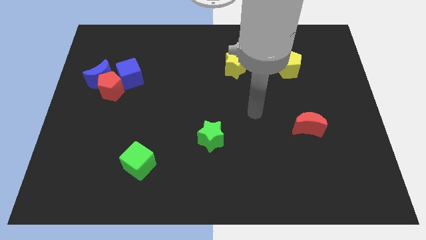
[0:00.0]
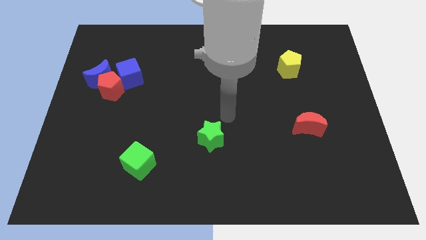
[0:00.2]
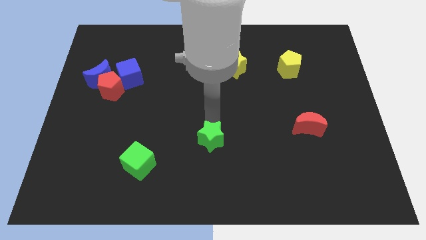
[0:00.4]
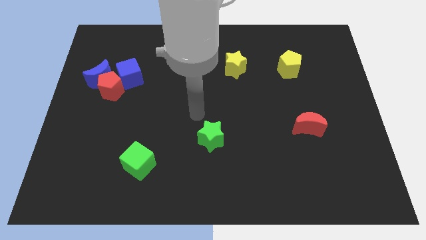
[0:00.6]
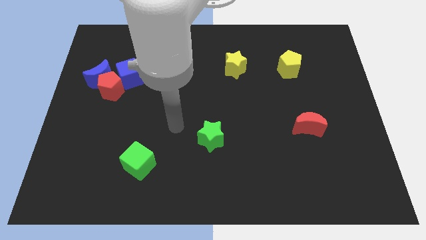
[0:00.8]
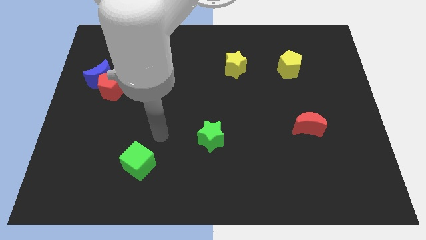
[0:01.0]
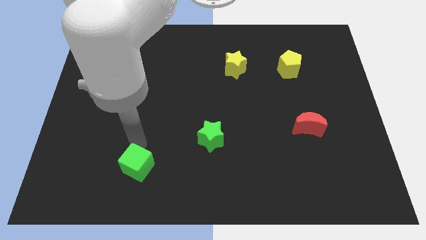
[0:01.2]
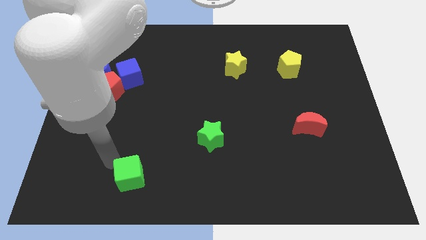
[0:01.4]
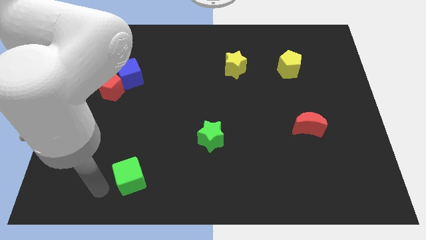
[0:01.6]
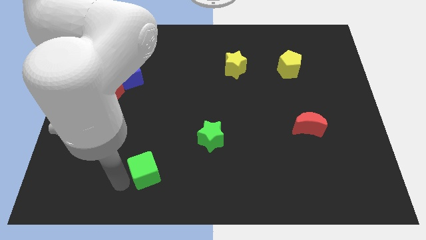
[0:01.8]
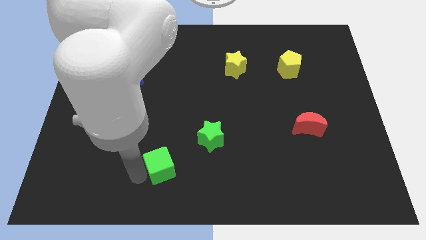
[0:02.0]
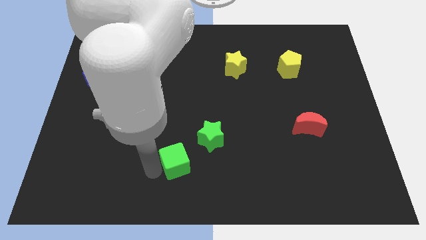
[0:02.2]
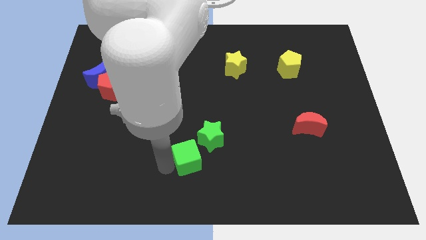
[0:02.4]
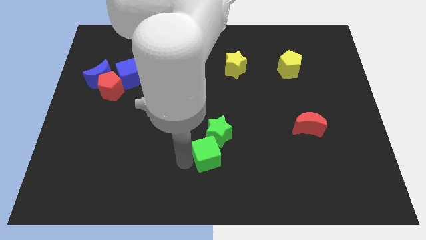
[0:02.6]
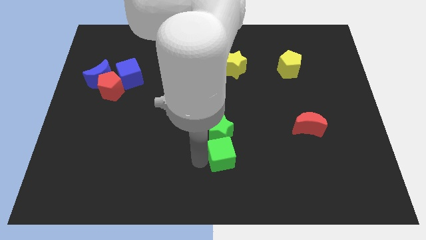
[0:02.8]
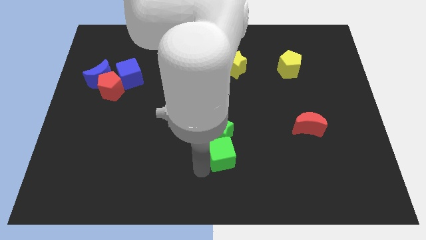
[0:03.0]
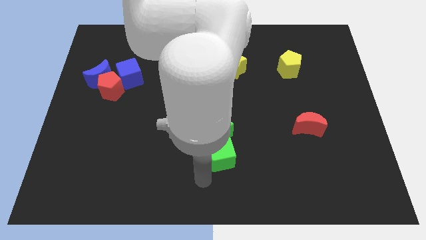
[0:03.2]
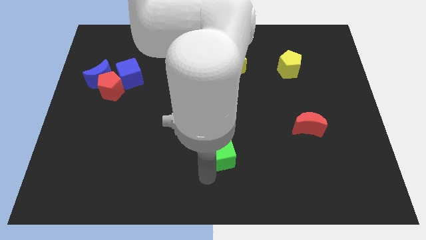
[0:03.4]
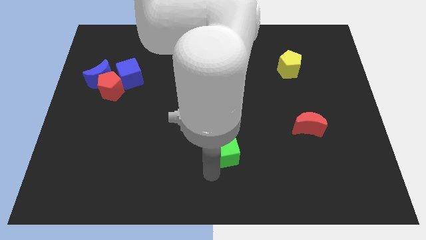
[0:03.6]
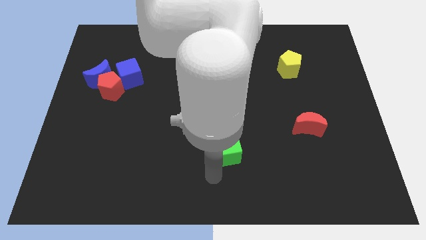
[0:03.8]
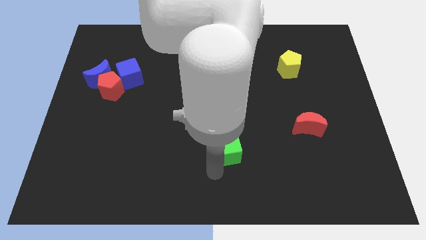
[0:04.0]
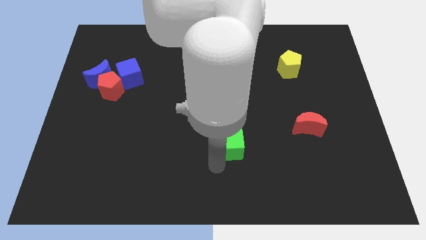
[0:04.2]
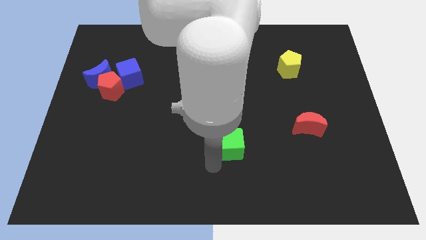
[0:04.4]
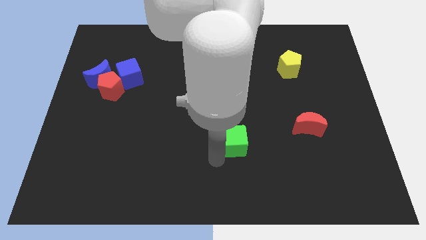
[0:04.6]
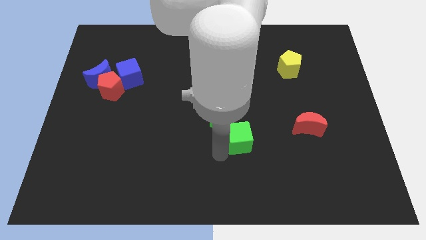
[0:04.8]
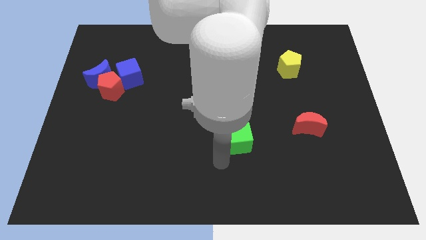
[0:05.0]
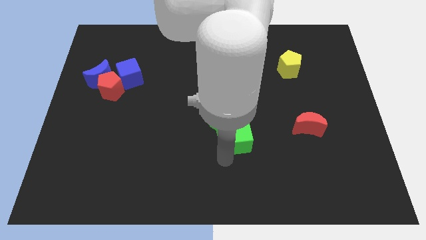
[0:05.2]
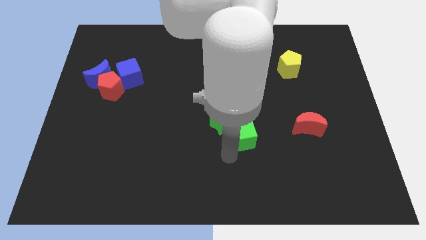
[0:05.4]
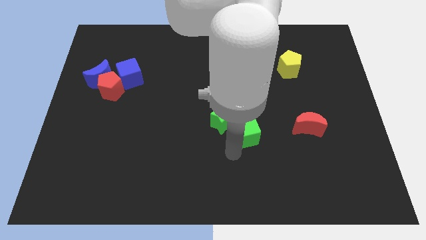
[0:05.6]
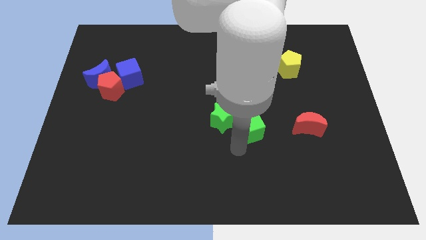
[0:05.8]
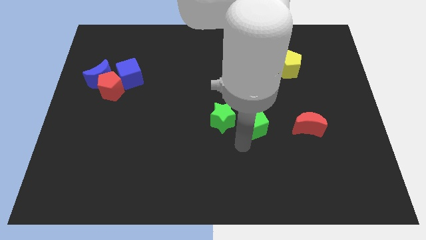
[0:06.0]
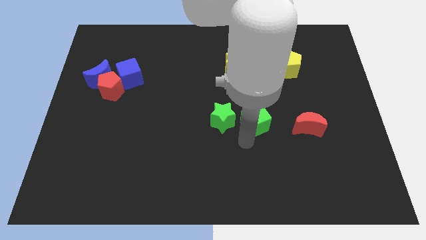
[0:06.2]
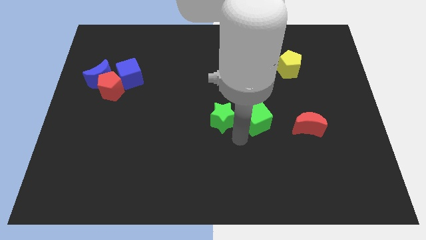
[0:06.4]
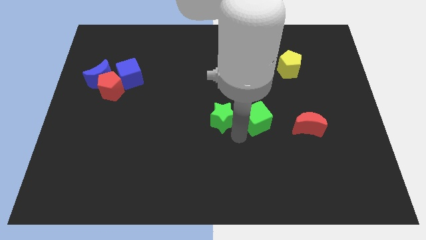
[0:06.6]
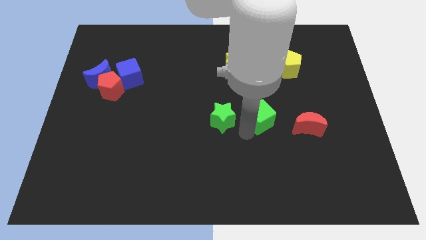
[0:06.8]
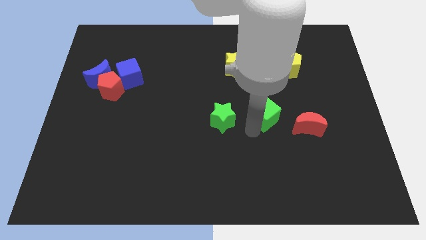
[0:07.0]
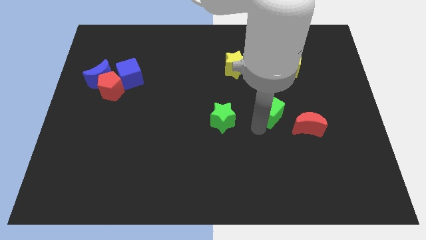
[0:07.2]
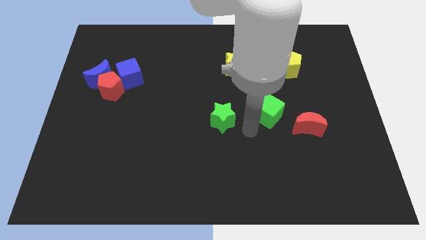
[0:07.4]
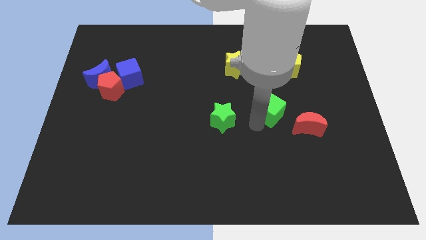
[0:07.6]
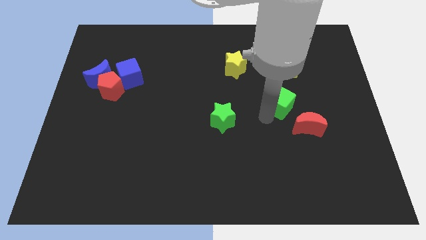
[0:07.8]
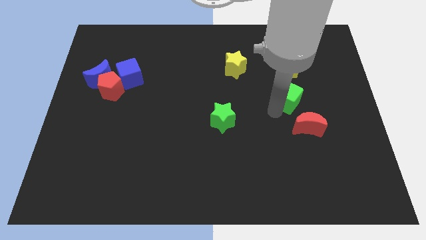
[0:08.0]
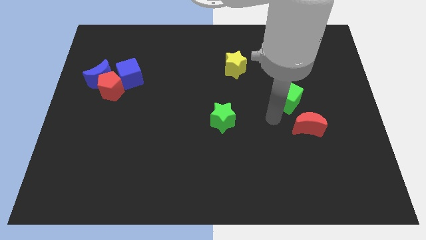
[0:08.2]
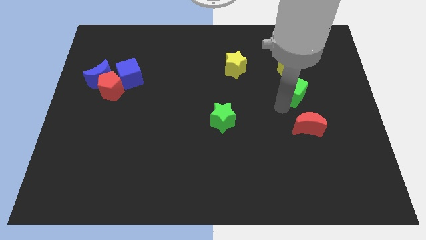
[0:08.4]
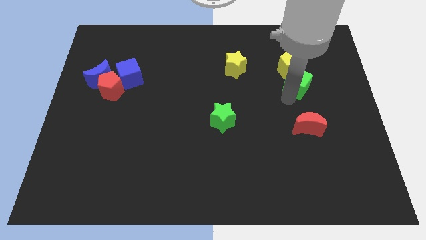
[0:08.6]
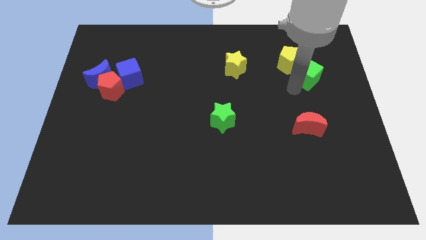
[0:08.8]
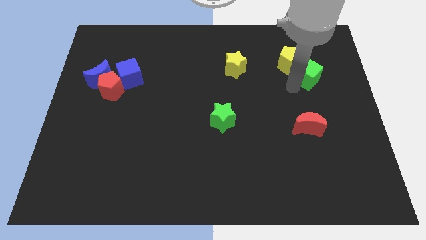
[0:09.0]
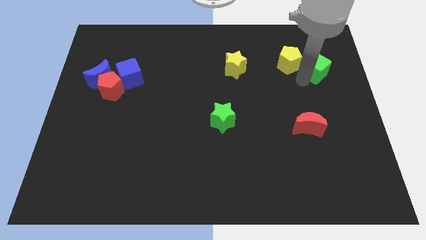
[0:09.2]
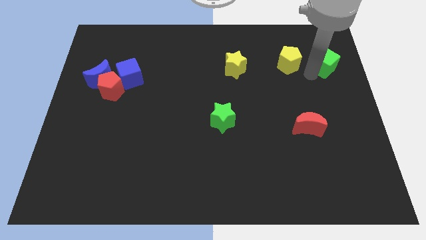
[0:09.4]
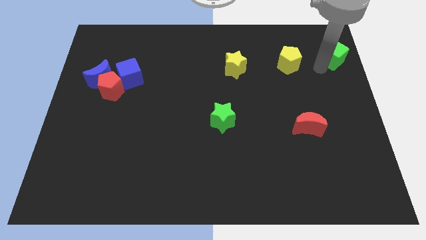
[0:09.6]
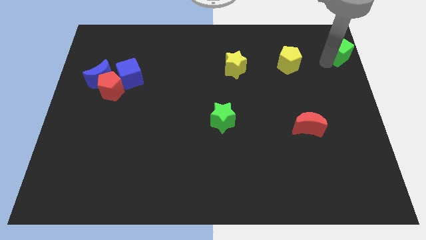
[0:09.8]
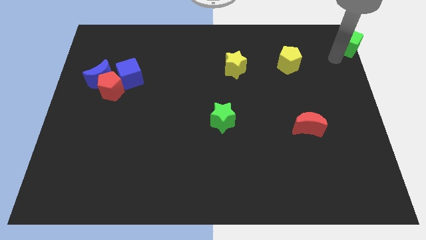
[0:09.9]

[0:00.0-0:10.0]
move the green cube to the upper right corner

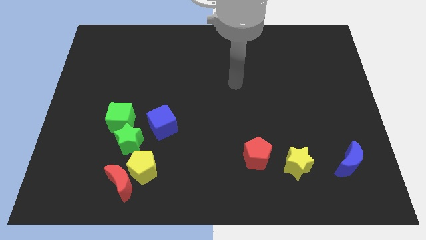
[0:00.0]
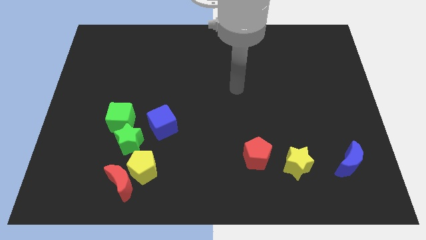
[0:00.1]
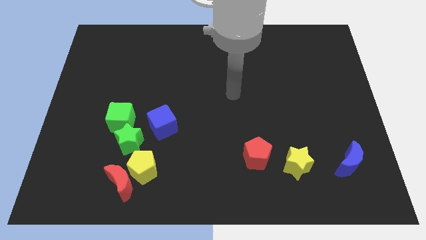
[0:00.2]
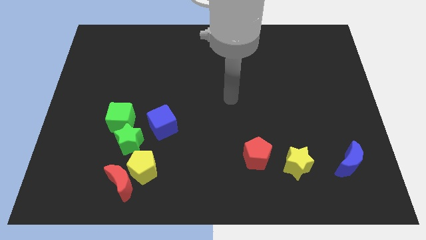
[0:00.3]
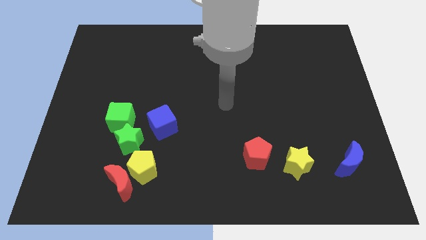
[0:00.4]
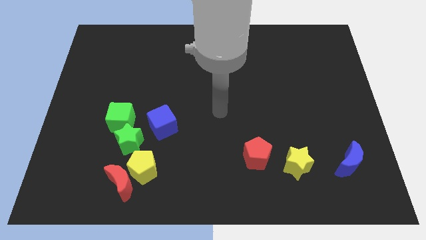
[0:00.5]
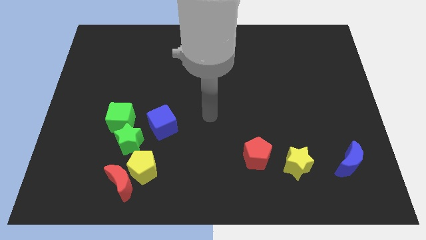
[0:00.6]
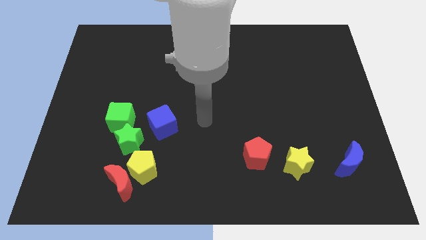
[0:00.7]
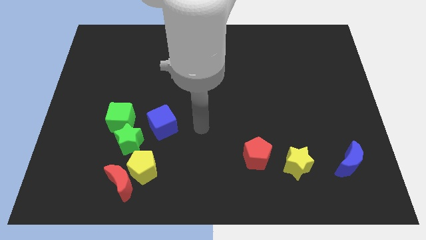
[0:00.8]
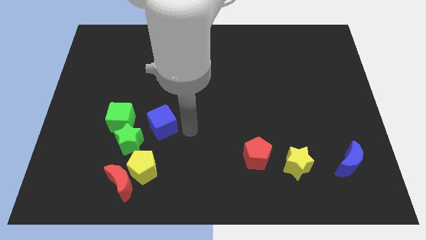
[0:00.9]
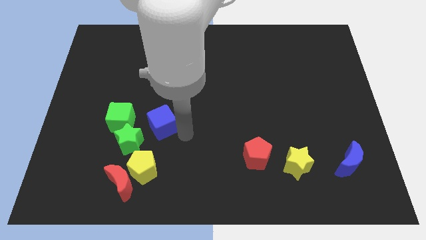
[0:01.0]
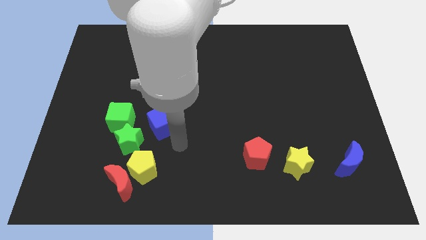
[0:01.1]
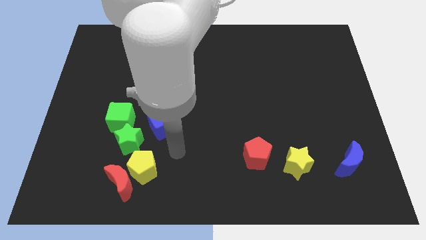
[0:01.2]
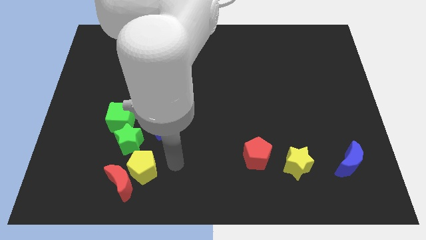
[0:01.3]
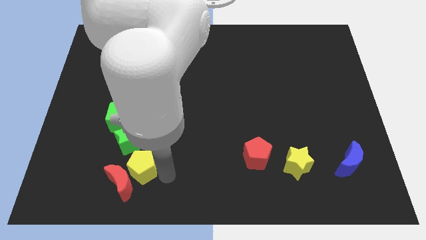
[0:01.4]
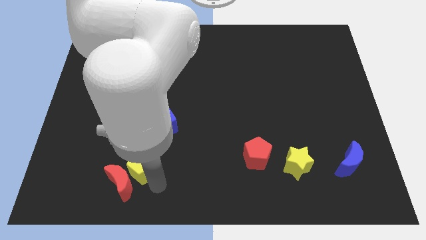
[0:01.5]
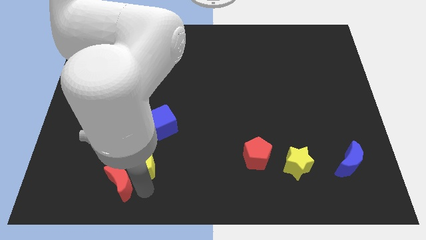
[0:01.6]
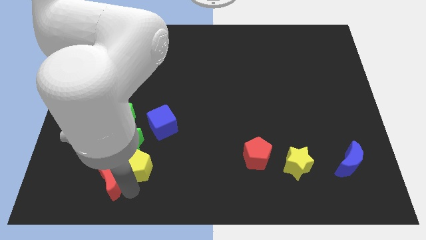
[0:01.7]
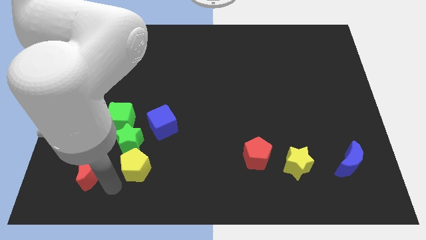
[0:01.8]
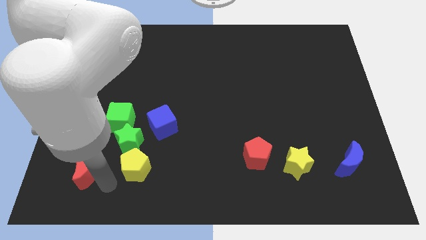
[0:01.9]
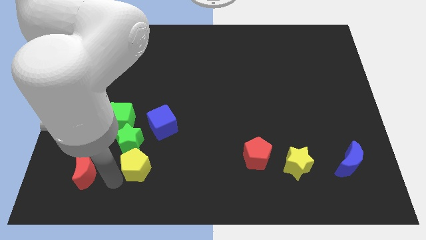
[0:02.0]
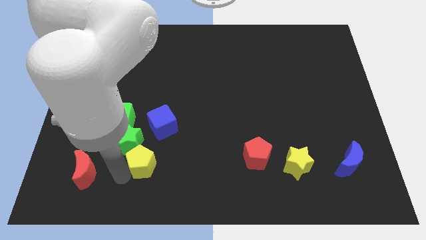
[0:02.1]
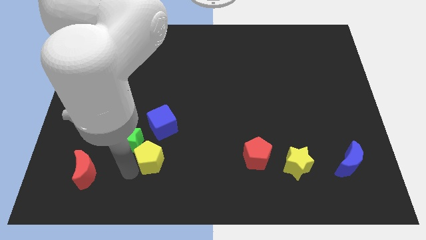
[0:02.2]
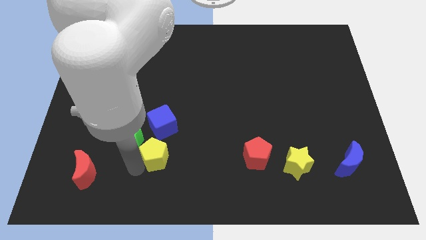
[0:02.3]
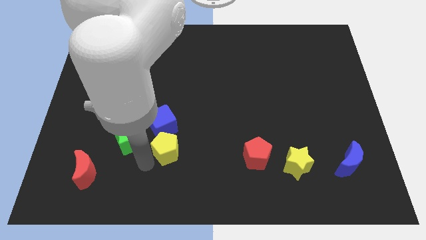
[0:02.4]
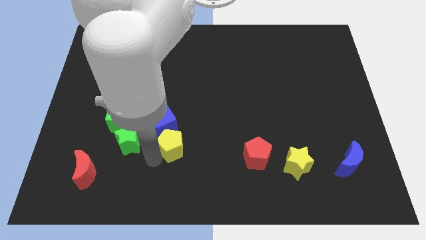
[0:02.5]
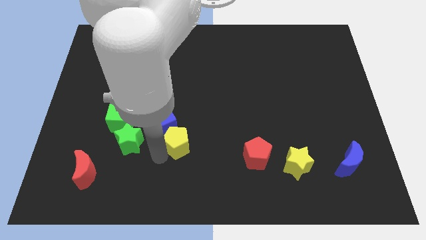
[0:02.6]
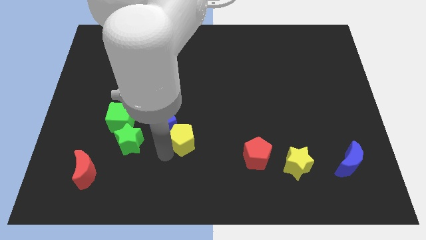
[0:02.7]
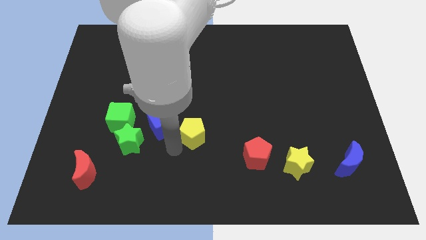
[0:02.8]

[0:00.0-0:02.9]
slide the yellow pentagon to the center of the board
